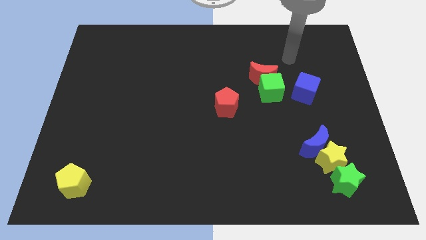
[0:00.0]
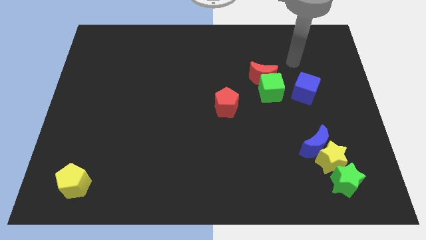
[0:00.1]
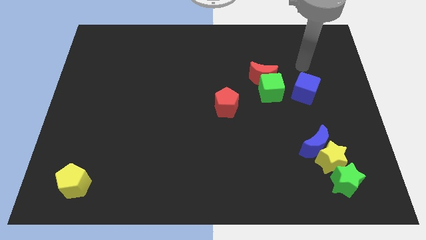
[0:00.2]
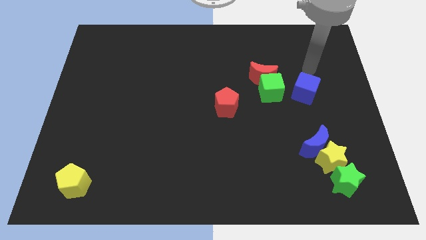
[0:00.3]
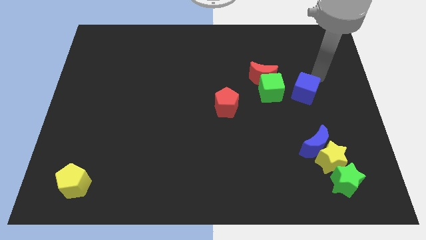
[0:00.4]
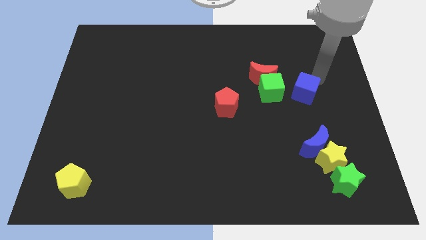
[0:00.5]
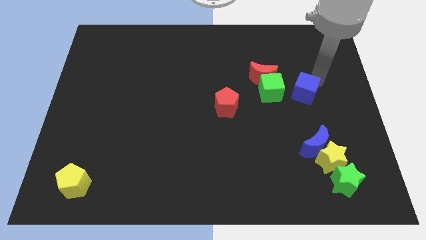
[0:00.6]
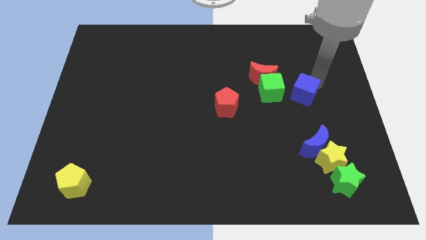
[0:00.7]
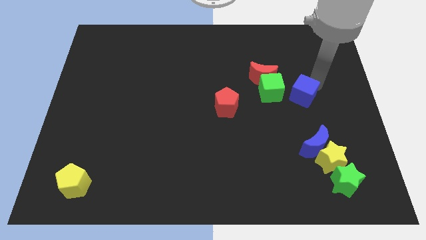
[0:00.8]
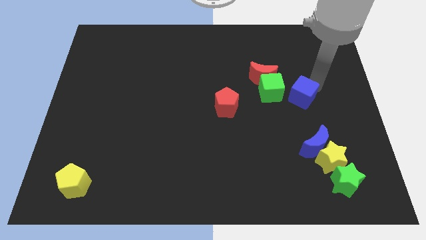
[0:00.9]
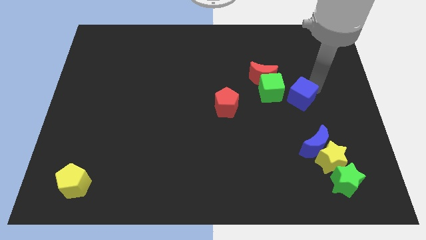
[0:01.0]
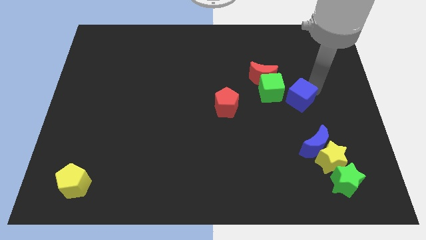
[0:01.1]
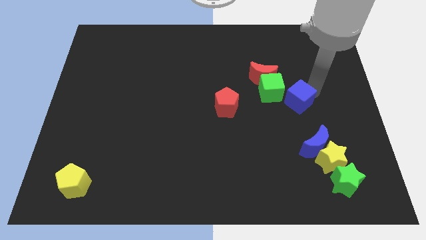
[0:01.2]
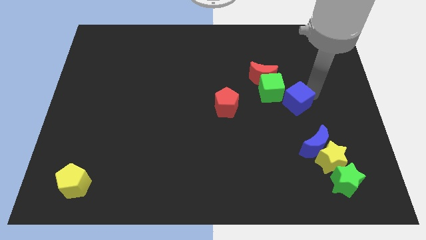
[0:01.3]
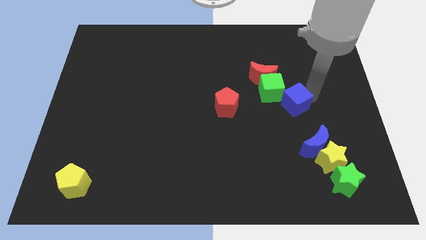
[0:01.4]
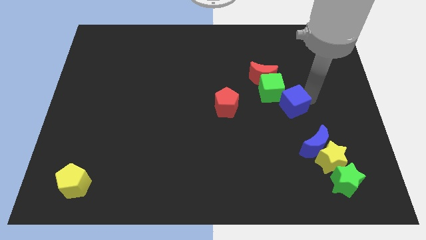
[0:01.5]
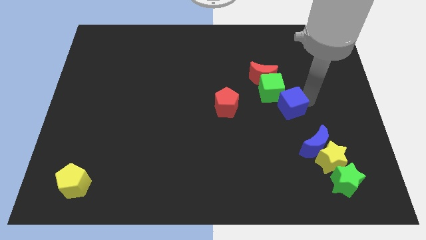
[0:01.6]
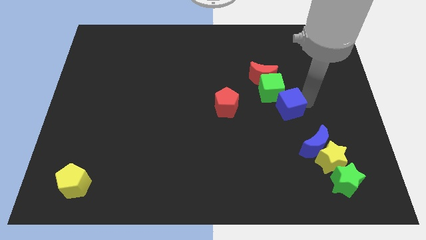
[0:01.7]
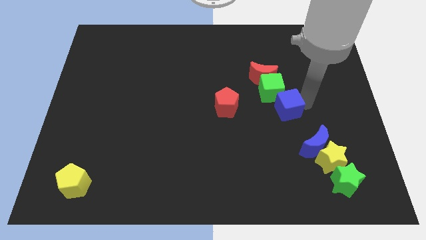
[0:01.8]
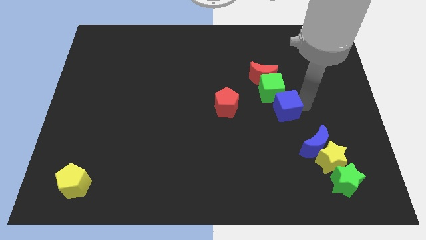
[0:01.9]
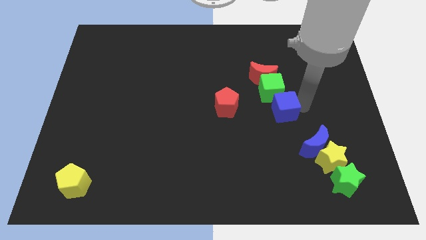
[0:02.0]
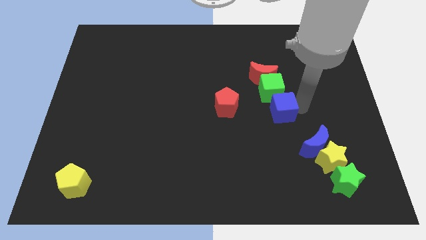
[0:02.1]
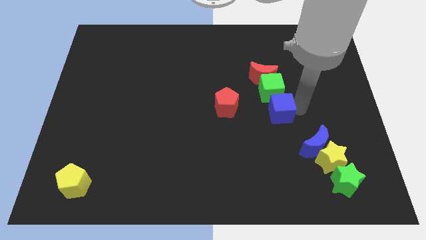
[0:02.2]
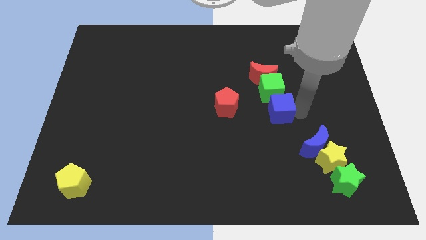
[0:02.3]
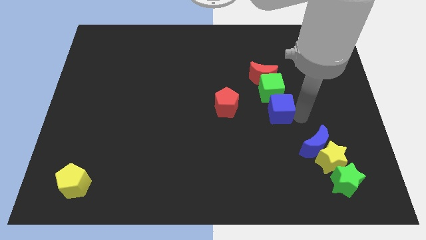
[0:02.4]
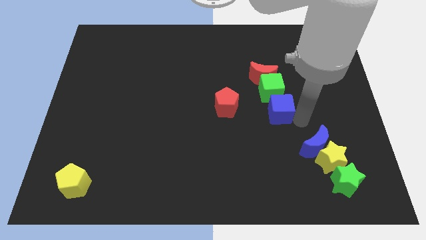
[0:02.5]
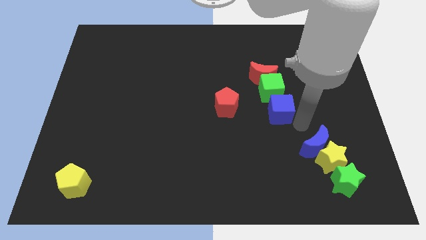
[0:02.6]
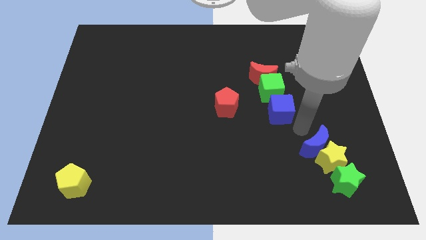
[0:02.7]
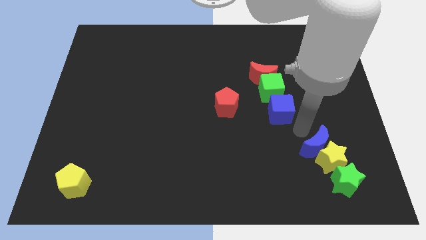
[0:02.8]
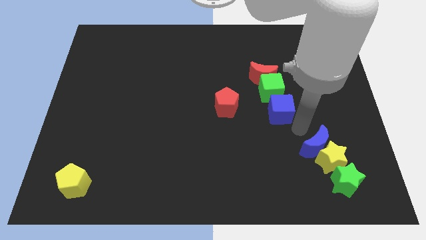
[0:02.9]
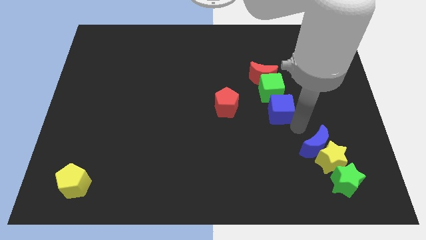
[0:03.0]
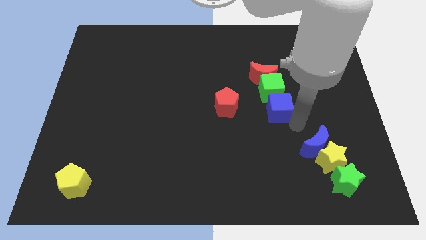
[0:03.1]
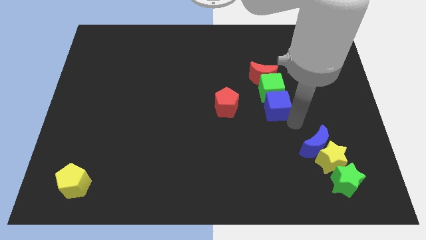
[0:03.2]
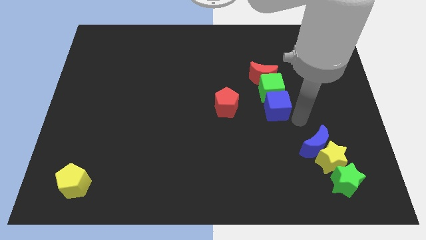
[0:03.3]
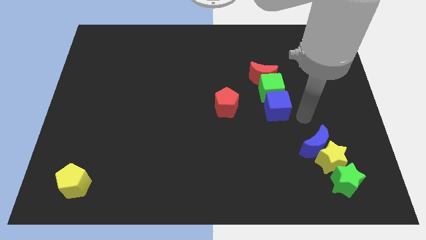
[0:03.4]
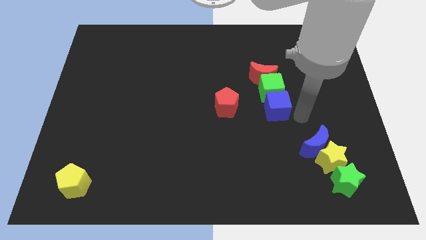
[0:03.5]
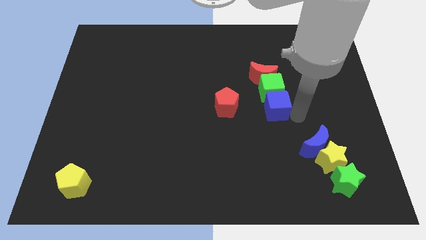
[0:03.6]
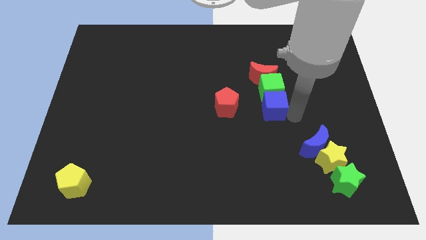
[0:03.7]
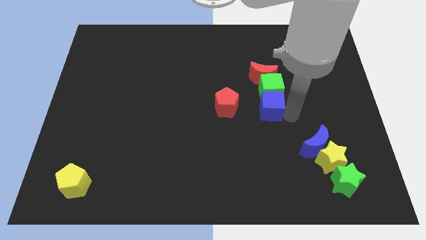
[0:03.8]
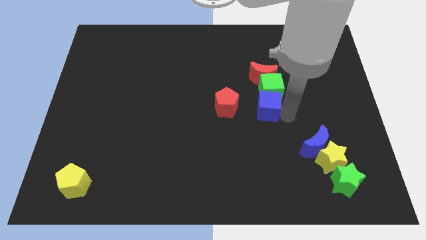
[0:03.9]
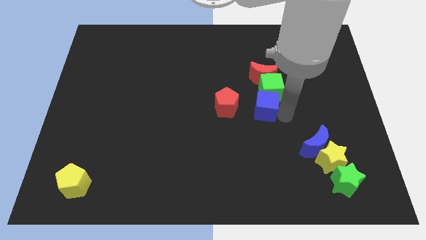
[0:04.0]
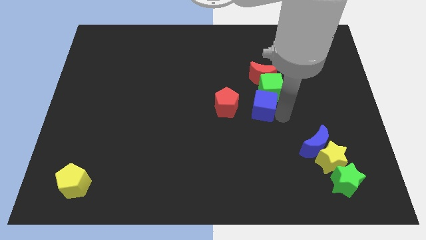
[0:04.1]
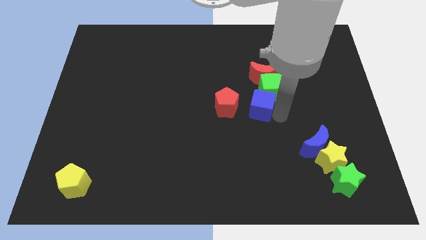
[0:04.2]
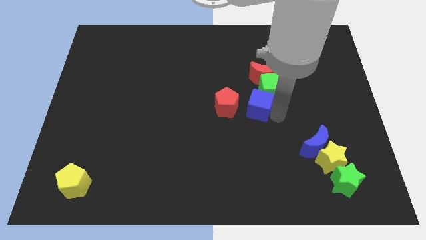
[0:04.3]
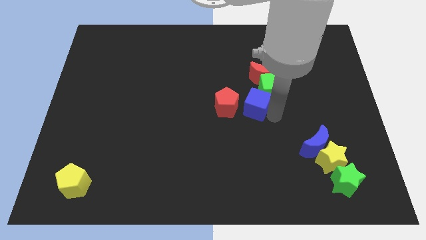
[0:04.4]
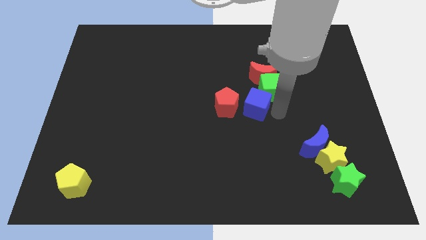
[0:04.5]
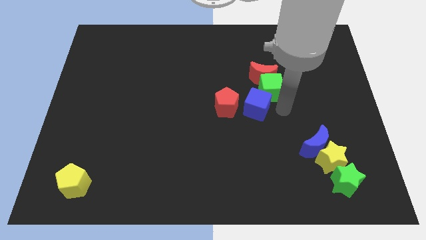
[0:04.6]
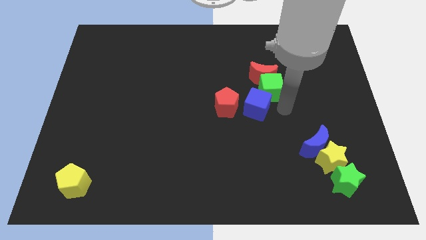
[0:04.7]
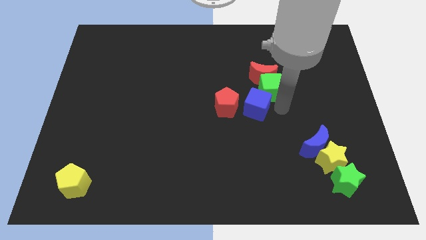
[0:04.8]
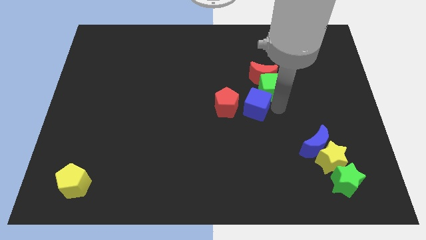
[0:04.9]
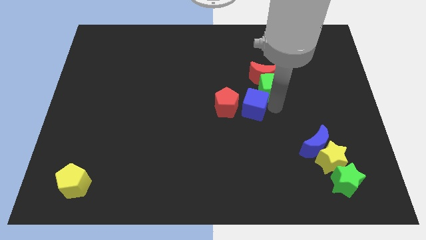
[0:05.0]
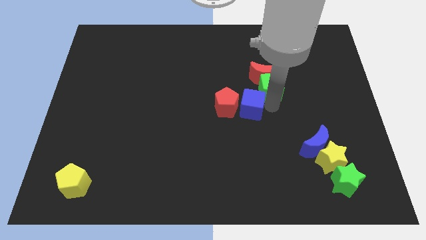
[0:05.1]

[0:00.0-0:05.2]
move the blue cube close to the red pentagon

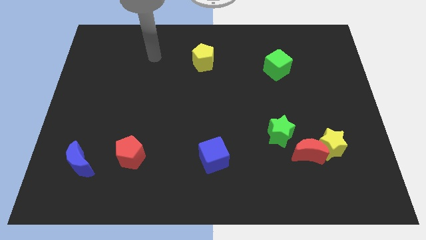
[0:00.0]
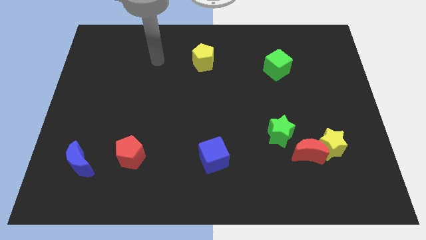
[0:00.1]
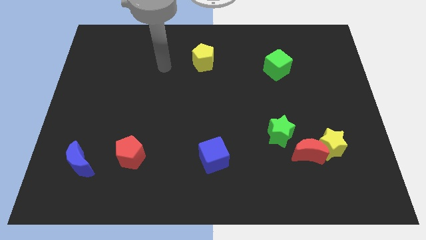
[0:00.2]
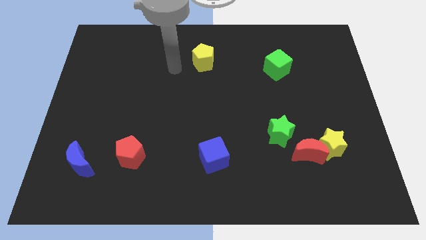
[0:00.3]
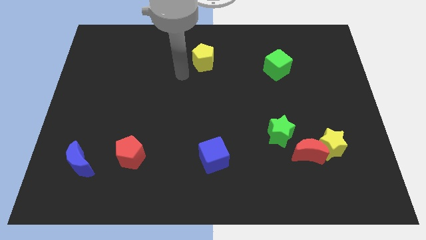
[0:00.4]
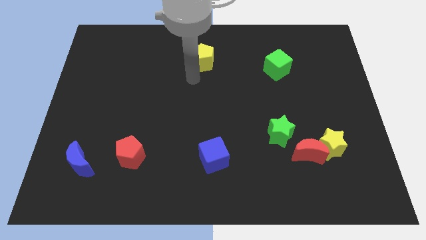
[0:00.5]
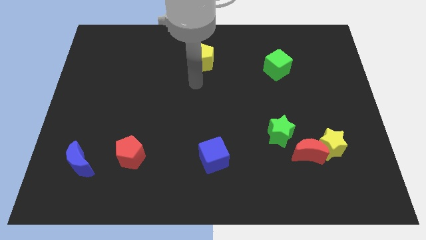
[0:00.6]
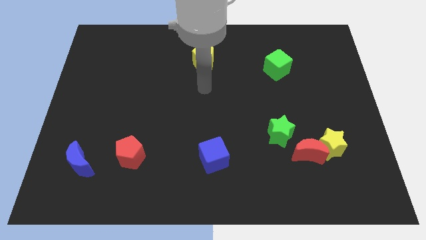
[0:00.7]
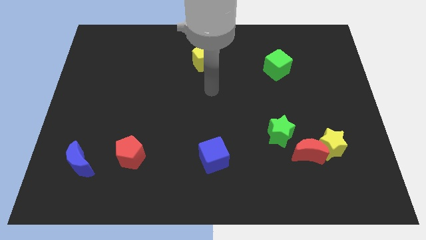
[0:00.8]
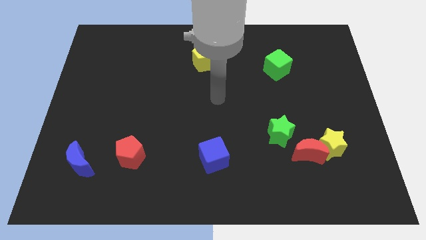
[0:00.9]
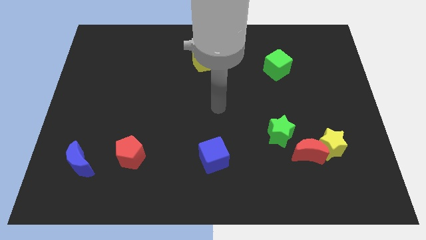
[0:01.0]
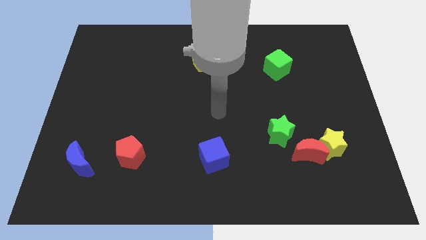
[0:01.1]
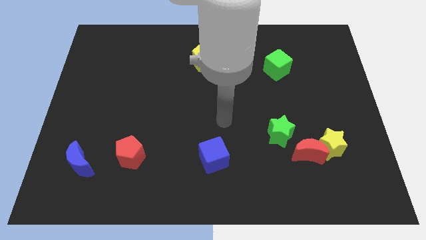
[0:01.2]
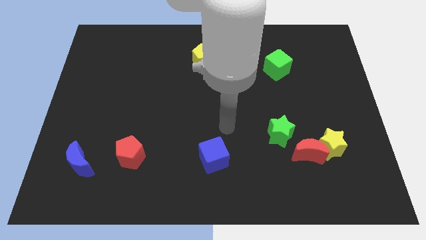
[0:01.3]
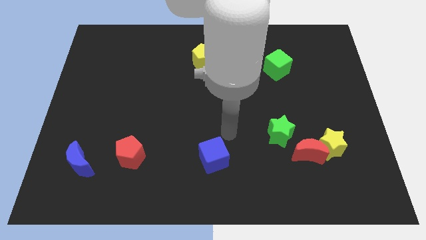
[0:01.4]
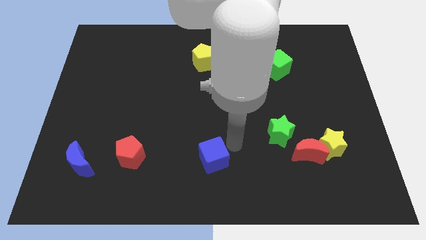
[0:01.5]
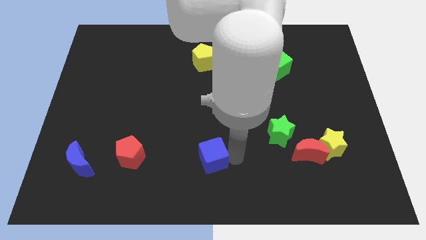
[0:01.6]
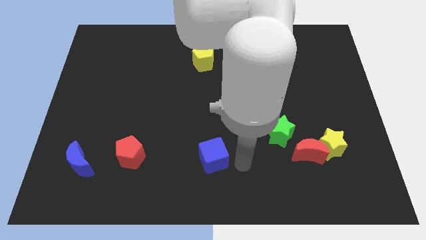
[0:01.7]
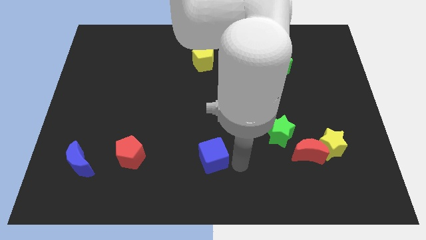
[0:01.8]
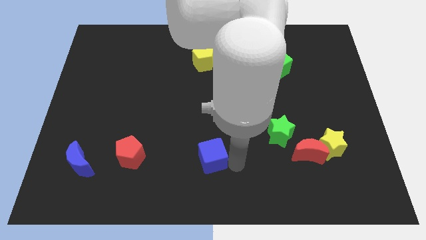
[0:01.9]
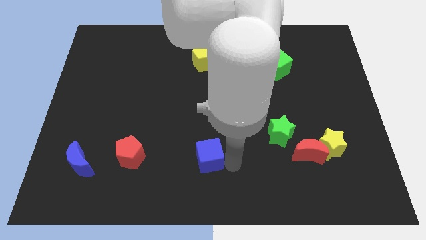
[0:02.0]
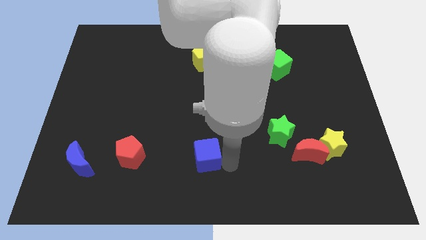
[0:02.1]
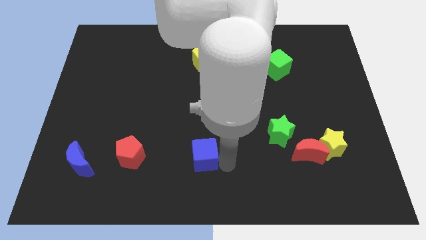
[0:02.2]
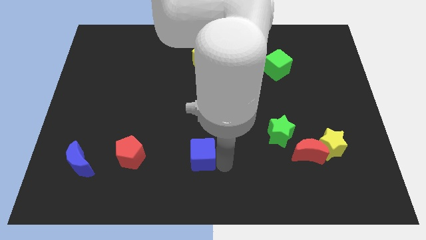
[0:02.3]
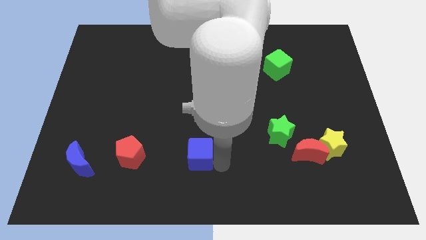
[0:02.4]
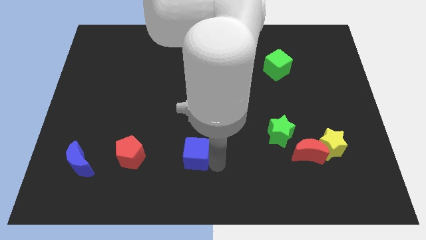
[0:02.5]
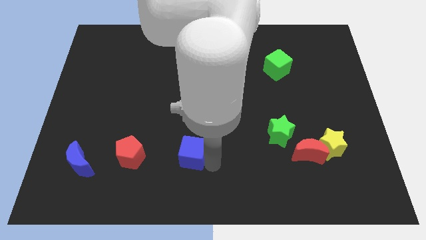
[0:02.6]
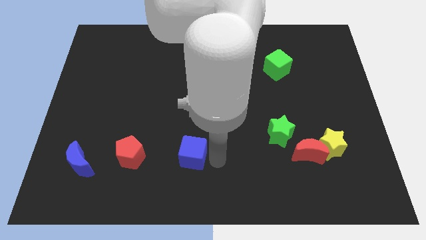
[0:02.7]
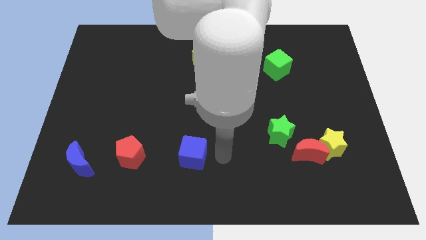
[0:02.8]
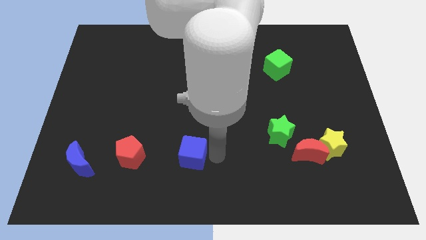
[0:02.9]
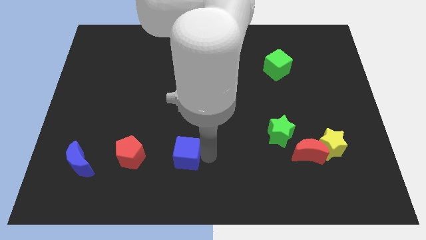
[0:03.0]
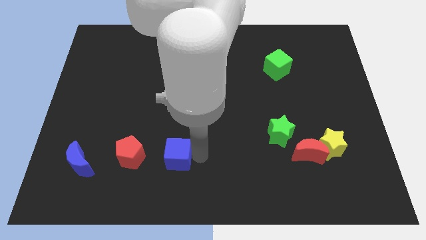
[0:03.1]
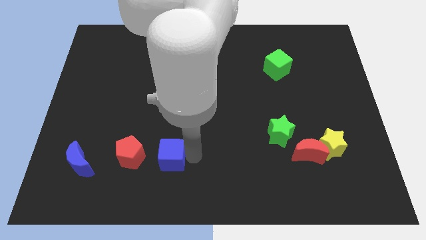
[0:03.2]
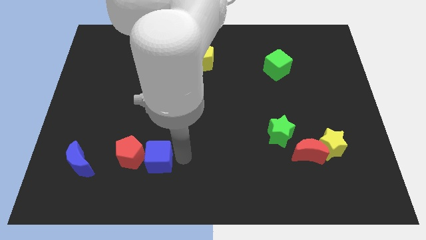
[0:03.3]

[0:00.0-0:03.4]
put the blue cube to the red pentagon
